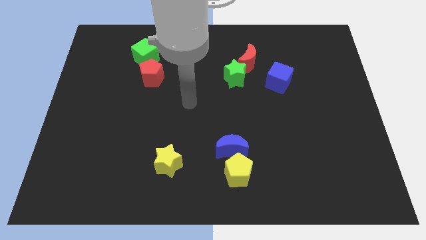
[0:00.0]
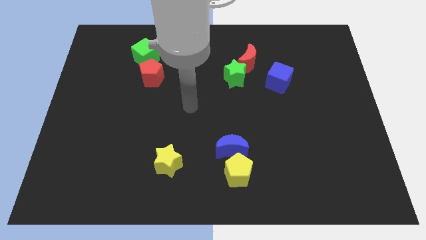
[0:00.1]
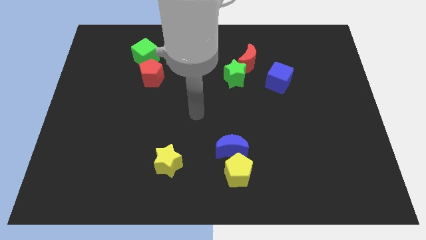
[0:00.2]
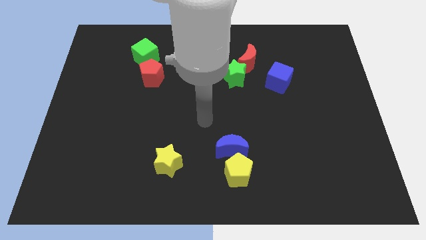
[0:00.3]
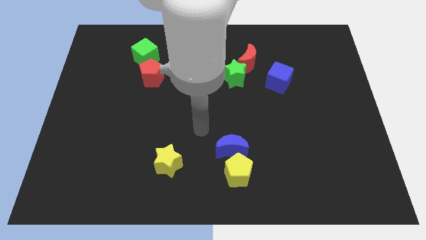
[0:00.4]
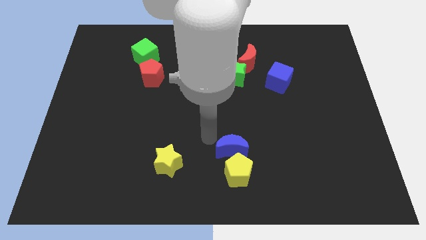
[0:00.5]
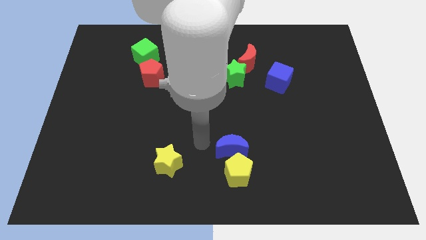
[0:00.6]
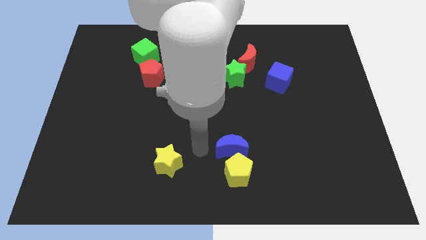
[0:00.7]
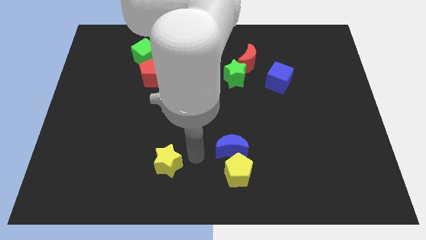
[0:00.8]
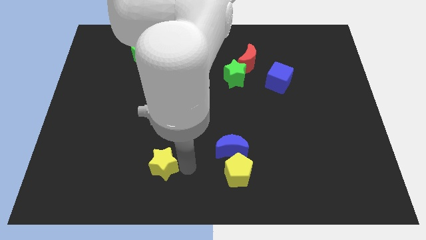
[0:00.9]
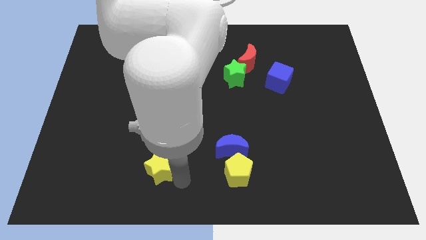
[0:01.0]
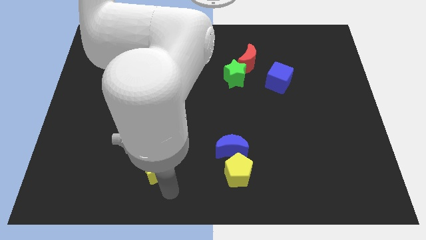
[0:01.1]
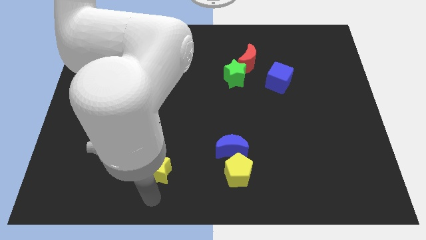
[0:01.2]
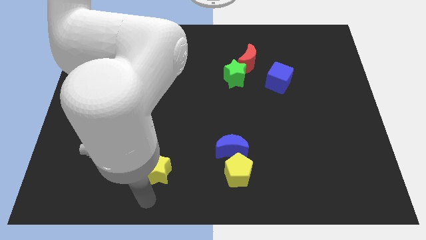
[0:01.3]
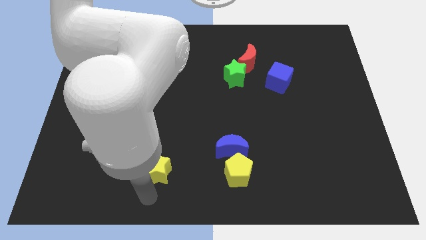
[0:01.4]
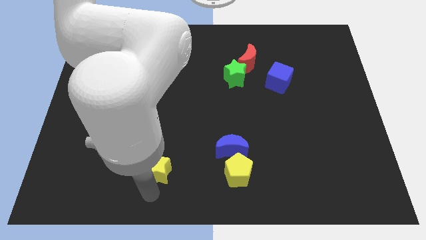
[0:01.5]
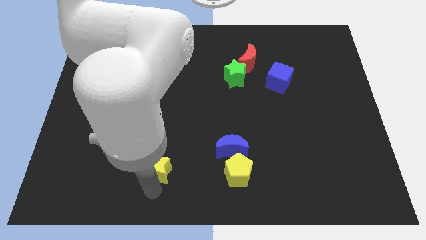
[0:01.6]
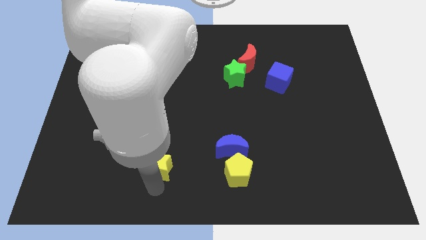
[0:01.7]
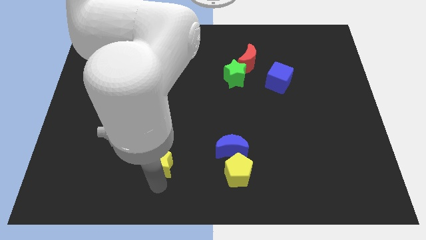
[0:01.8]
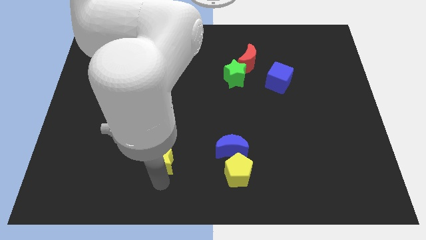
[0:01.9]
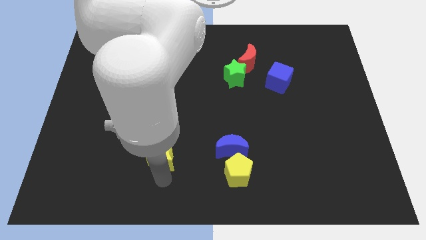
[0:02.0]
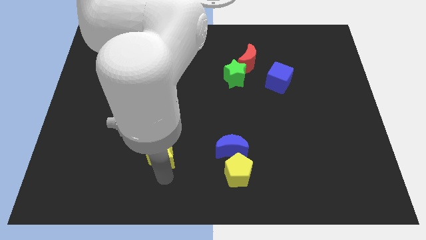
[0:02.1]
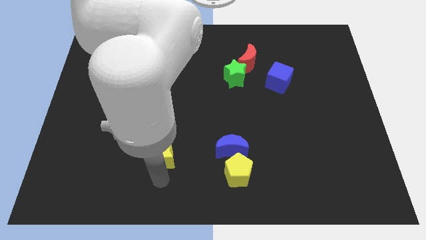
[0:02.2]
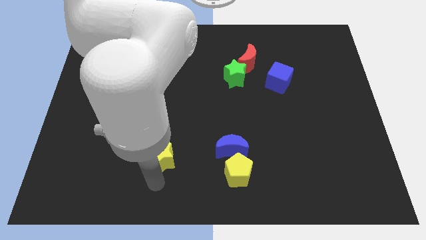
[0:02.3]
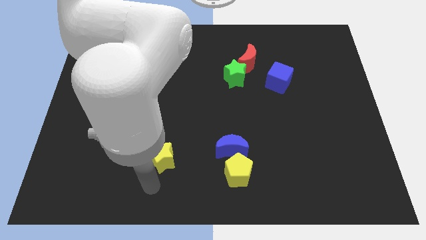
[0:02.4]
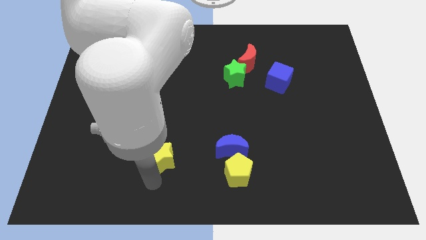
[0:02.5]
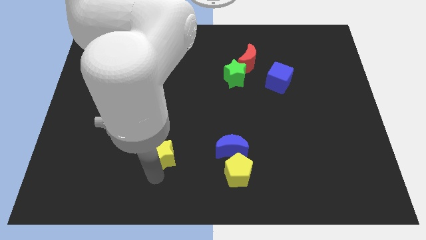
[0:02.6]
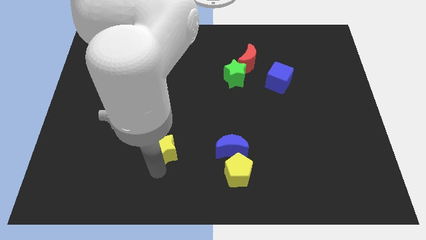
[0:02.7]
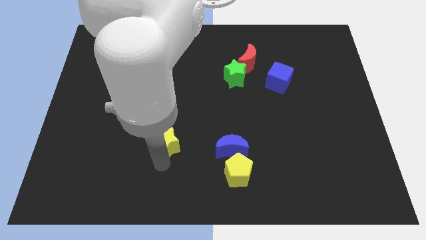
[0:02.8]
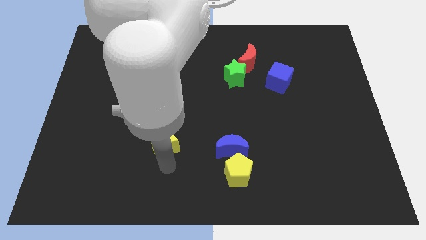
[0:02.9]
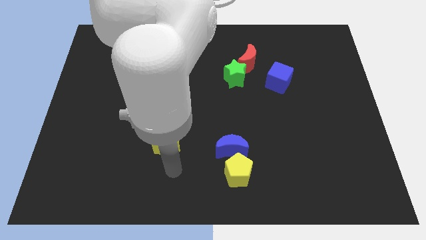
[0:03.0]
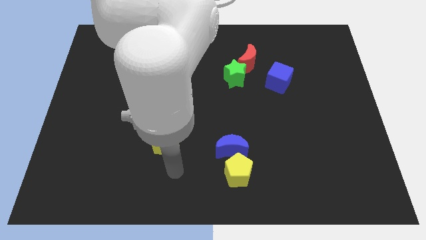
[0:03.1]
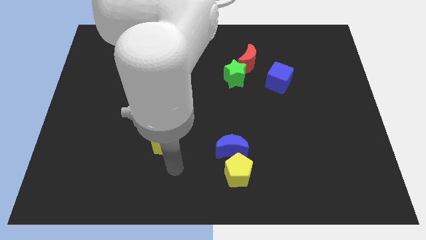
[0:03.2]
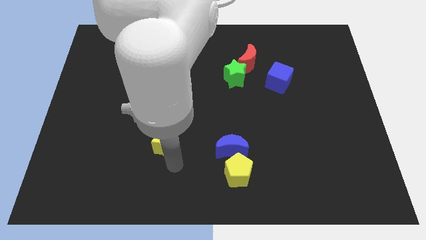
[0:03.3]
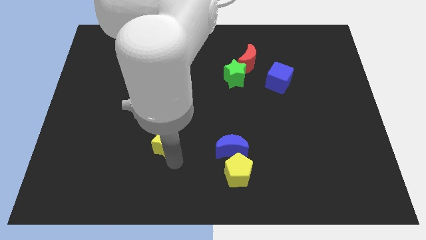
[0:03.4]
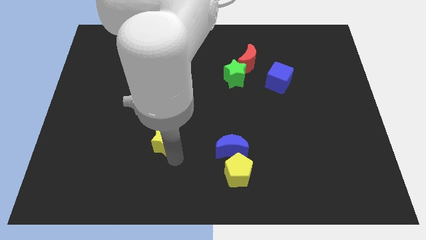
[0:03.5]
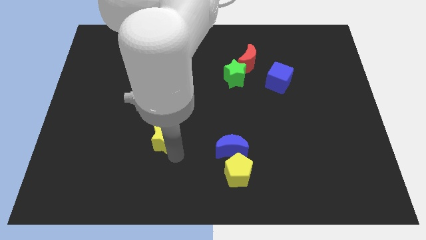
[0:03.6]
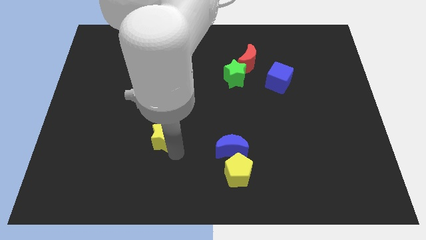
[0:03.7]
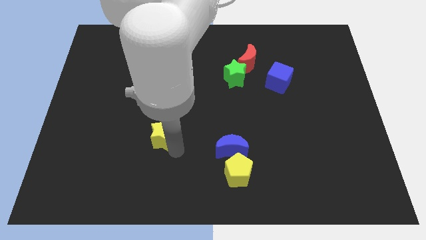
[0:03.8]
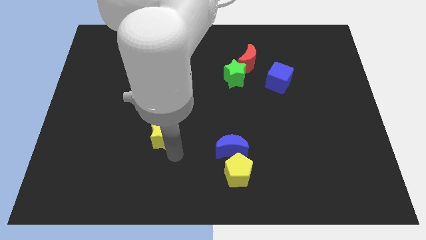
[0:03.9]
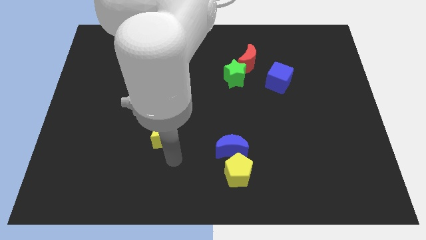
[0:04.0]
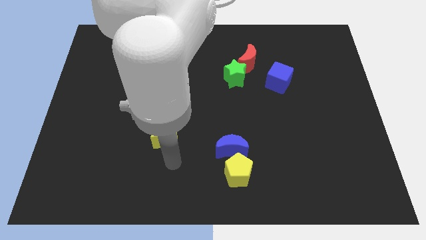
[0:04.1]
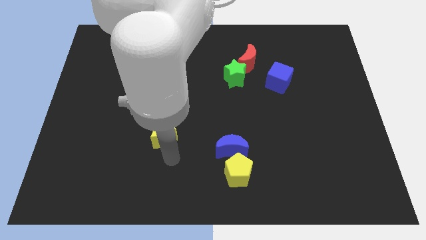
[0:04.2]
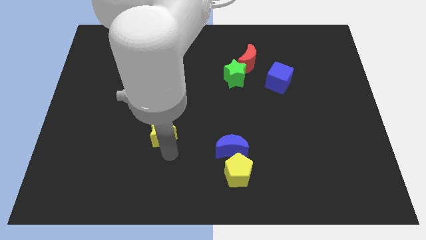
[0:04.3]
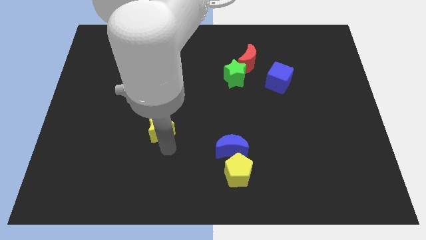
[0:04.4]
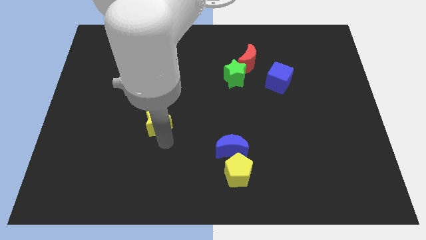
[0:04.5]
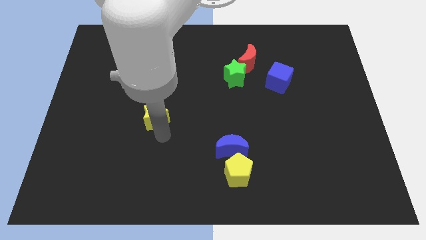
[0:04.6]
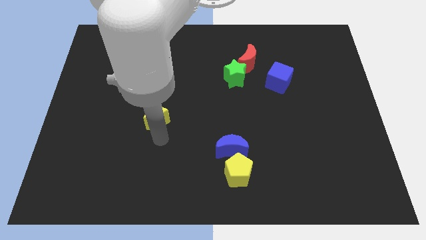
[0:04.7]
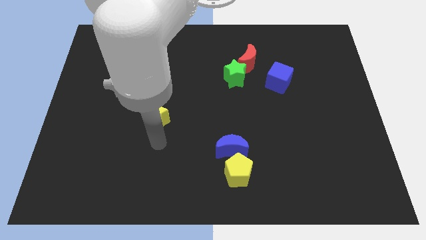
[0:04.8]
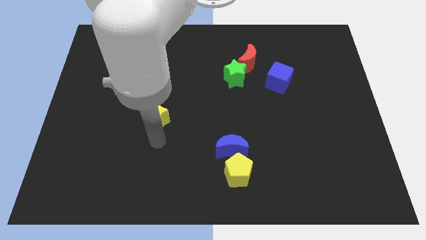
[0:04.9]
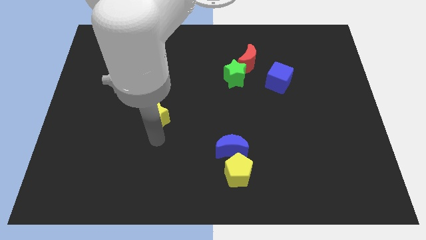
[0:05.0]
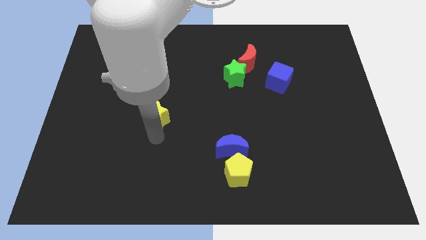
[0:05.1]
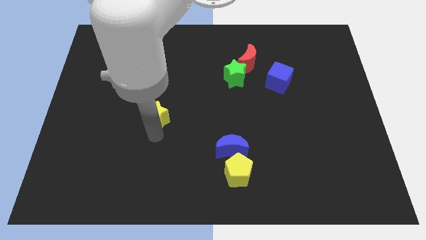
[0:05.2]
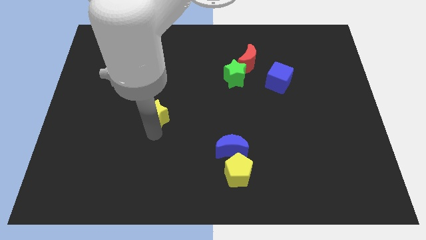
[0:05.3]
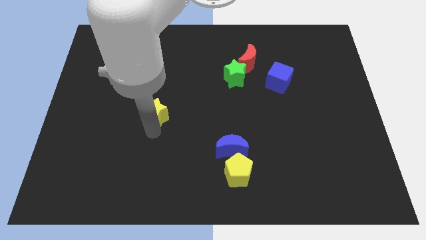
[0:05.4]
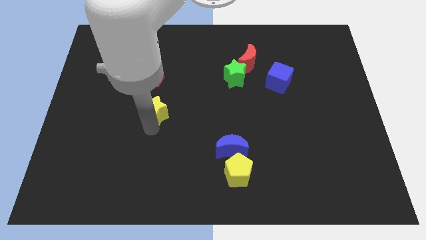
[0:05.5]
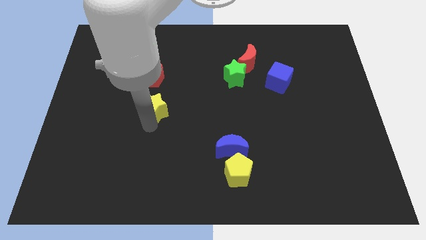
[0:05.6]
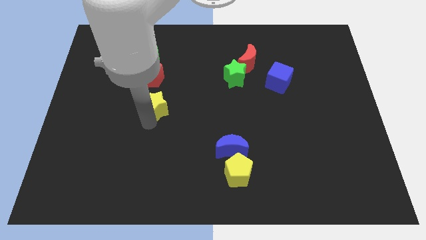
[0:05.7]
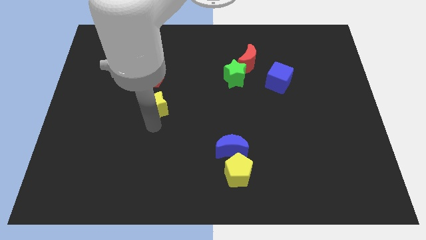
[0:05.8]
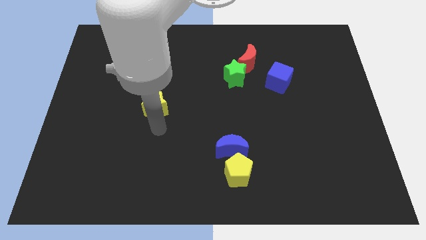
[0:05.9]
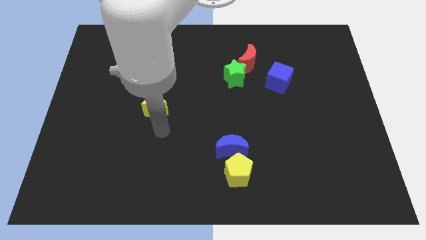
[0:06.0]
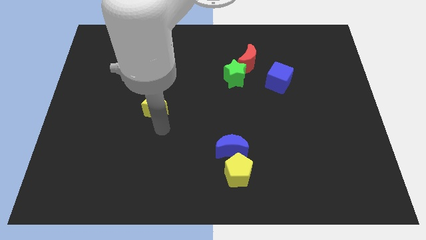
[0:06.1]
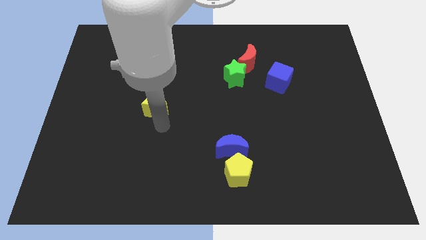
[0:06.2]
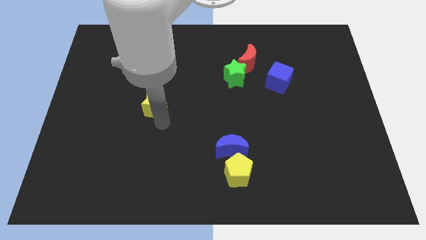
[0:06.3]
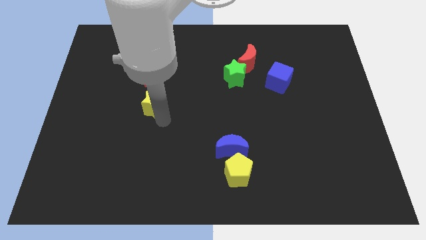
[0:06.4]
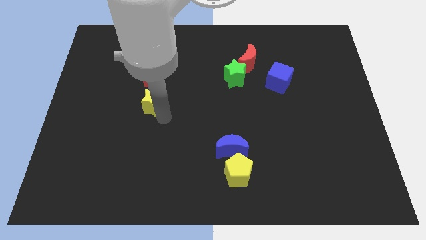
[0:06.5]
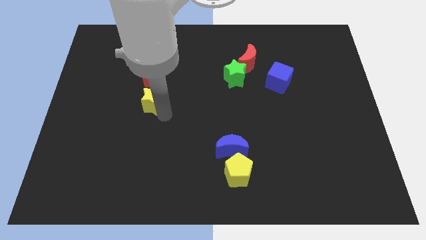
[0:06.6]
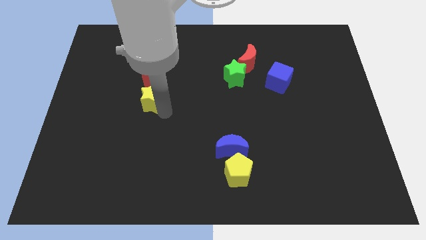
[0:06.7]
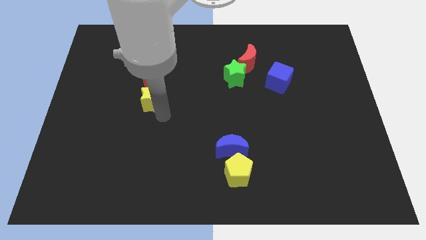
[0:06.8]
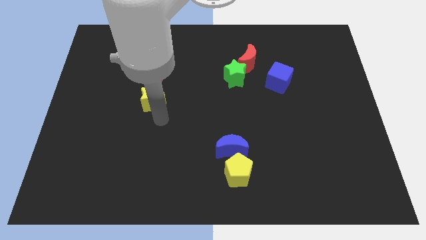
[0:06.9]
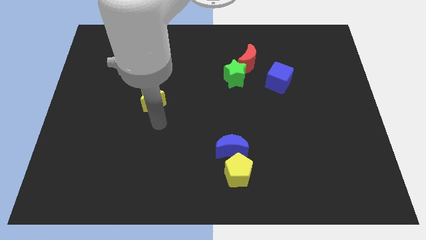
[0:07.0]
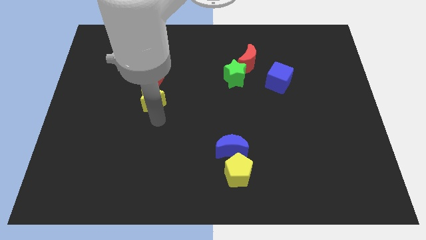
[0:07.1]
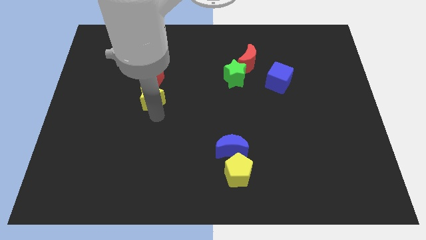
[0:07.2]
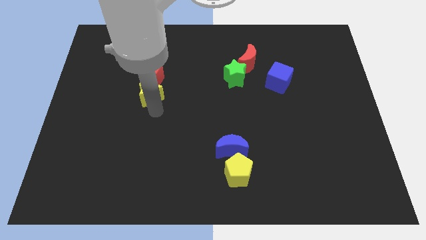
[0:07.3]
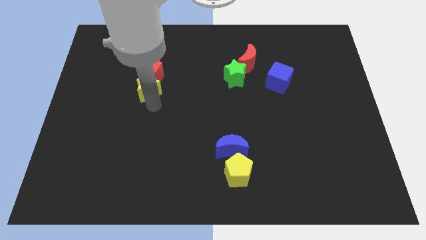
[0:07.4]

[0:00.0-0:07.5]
put the yellow star towards the red pentagon
